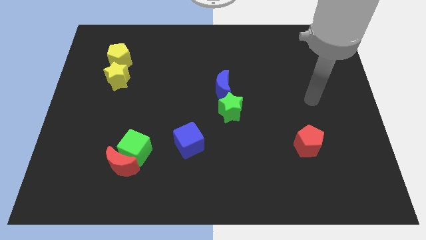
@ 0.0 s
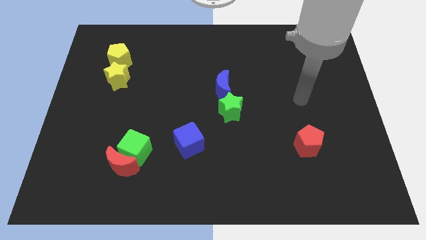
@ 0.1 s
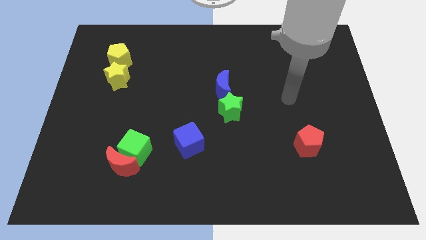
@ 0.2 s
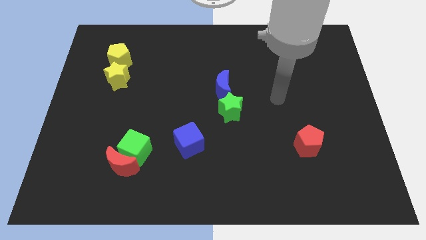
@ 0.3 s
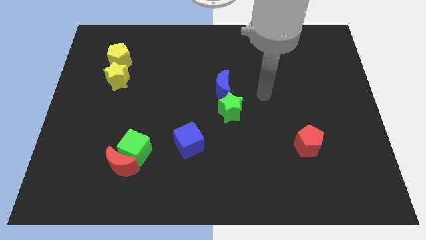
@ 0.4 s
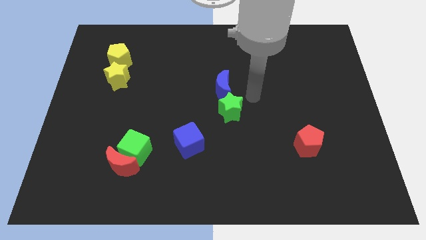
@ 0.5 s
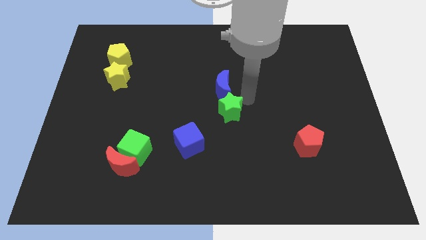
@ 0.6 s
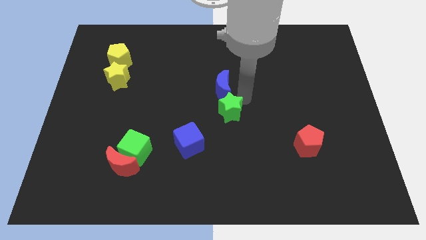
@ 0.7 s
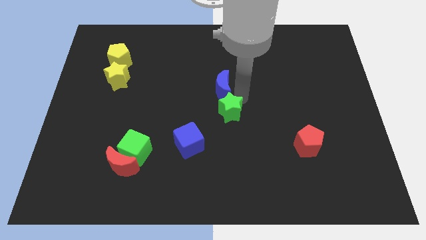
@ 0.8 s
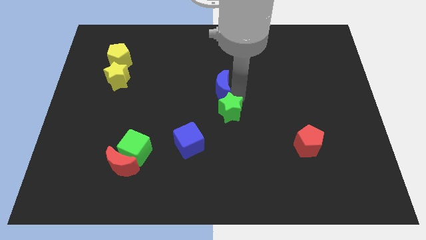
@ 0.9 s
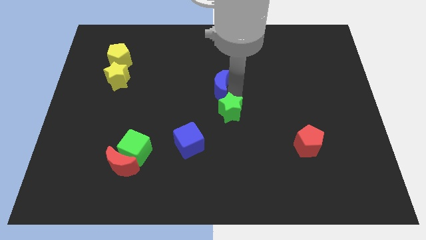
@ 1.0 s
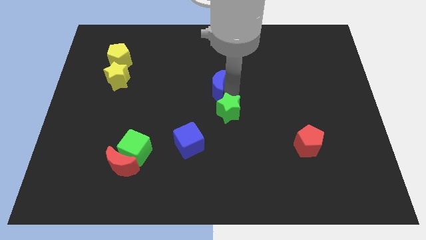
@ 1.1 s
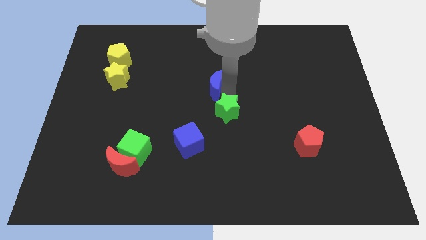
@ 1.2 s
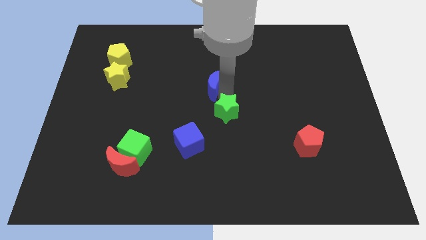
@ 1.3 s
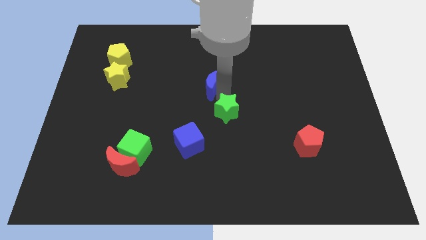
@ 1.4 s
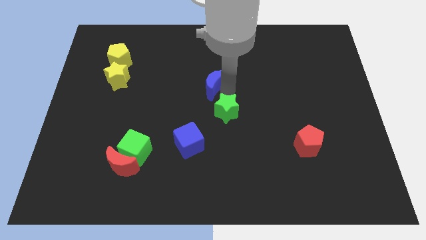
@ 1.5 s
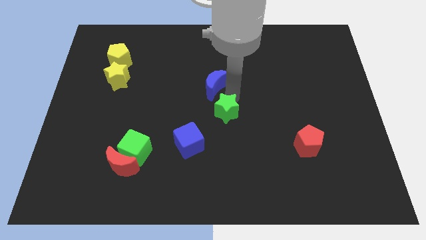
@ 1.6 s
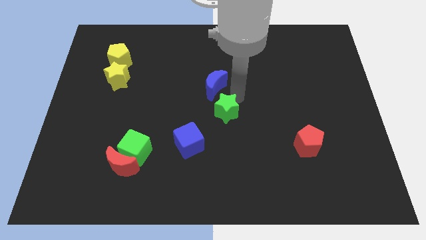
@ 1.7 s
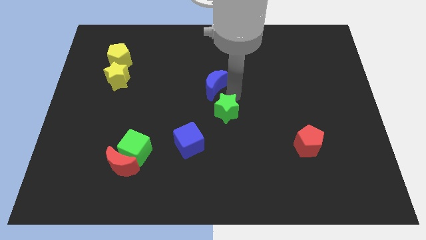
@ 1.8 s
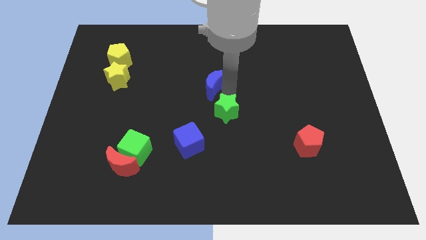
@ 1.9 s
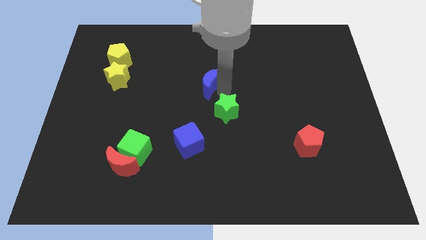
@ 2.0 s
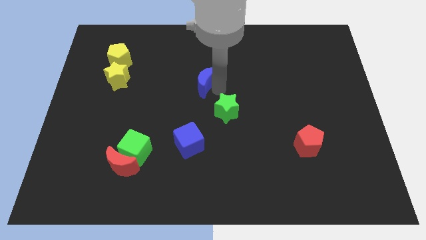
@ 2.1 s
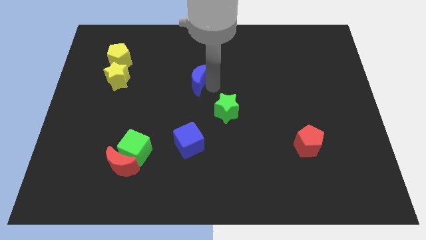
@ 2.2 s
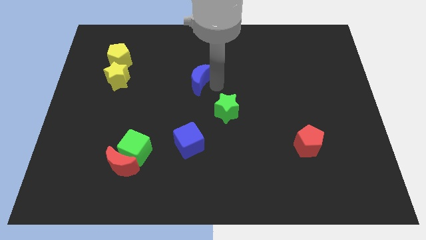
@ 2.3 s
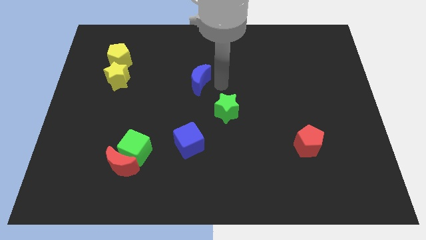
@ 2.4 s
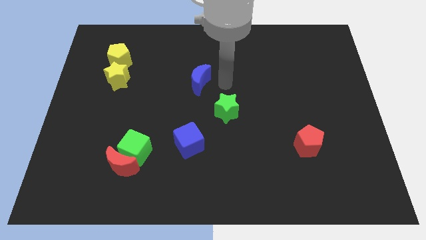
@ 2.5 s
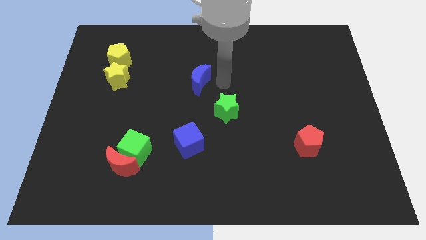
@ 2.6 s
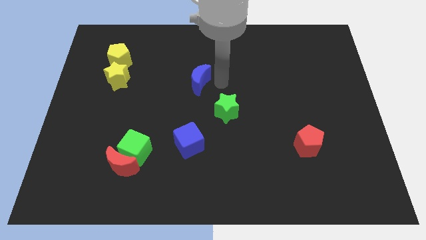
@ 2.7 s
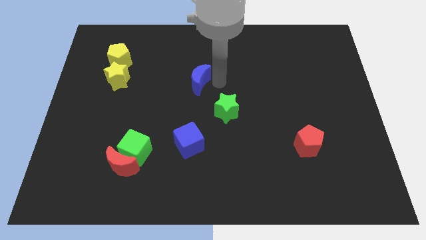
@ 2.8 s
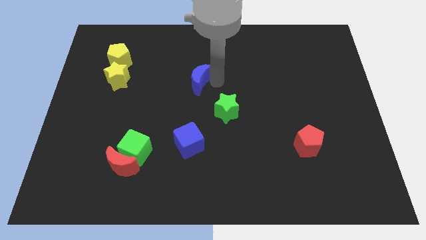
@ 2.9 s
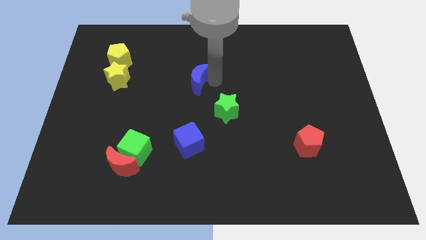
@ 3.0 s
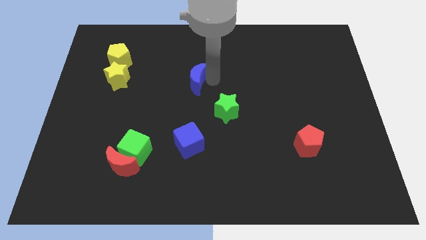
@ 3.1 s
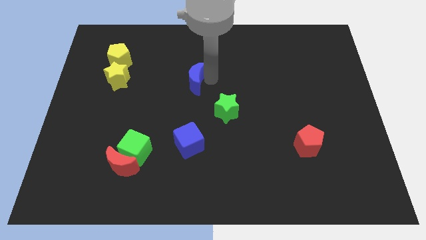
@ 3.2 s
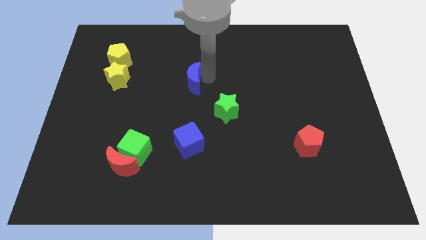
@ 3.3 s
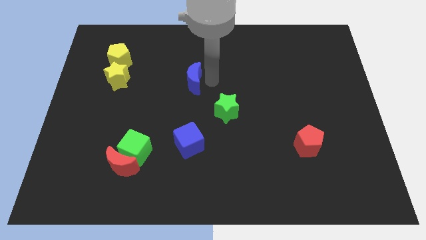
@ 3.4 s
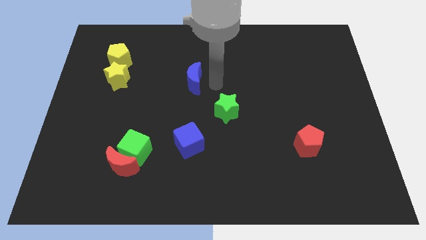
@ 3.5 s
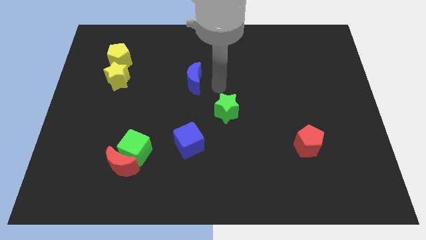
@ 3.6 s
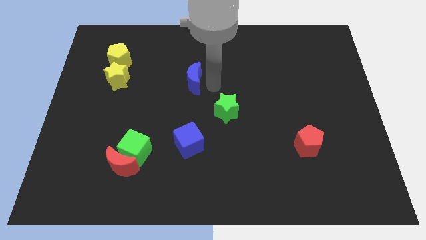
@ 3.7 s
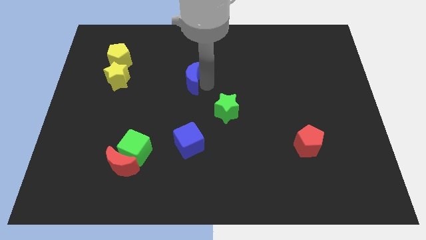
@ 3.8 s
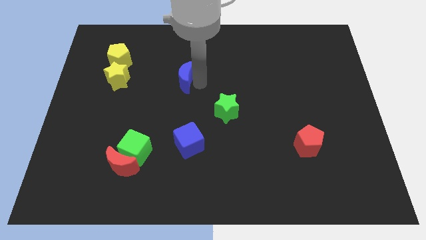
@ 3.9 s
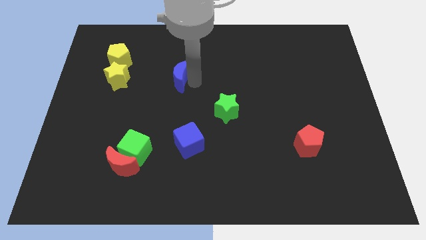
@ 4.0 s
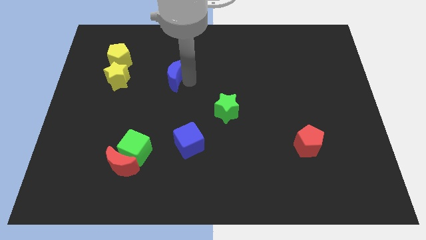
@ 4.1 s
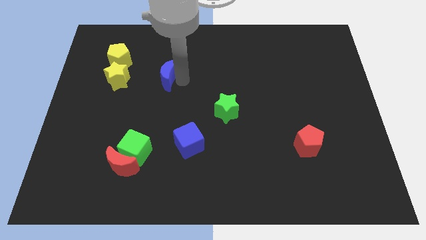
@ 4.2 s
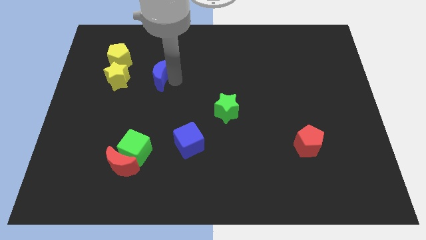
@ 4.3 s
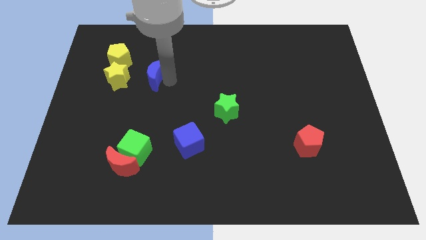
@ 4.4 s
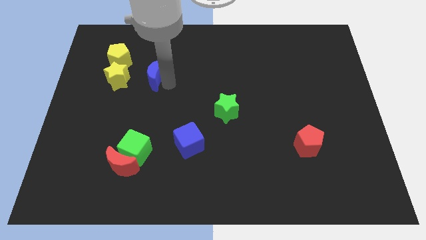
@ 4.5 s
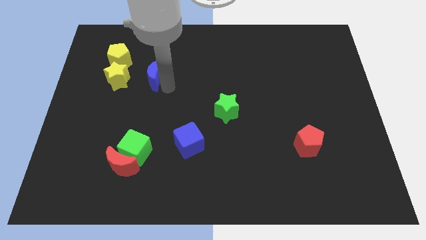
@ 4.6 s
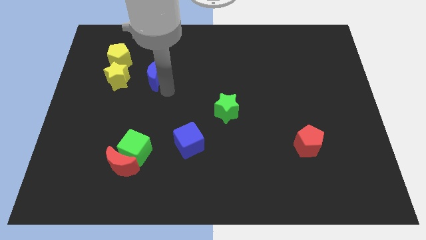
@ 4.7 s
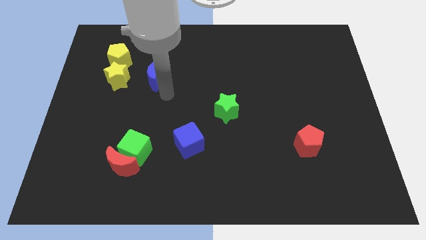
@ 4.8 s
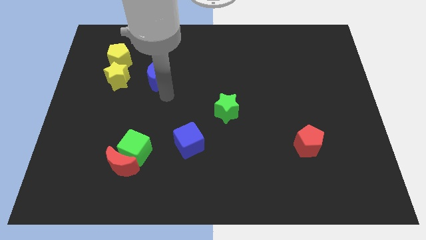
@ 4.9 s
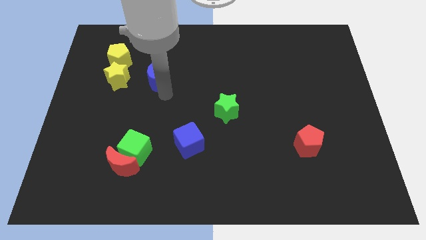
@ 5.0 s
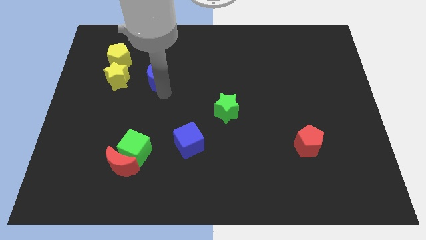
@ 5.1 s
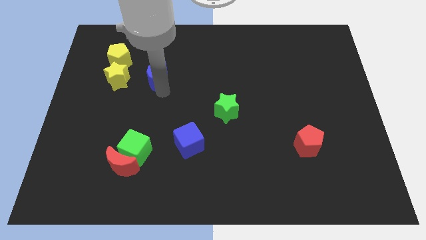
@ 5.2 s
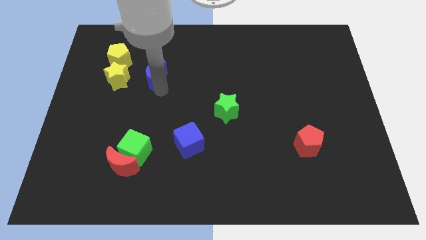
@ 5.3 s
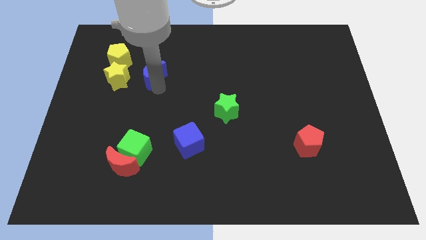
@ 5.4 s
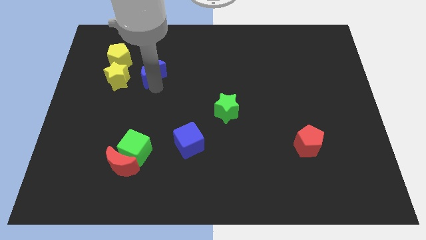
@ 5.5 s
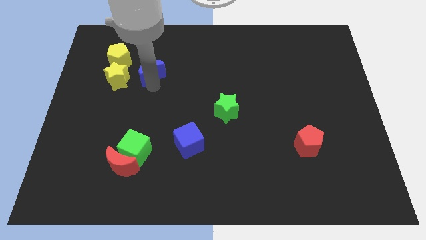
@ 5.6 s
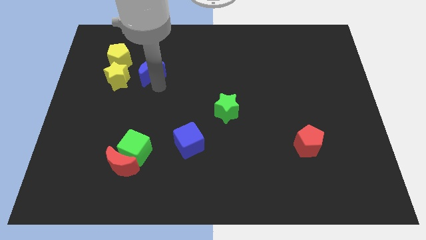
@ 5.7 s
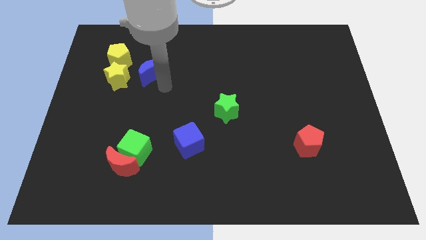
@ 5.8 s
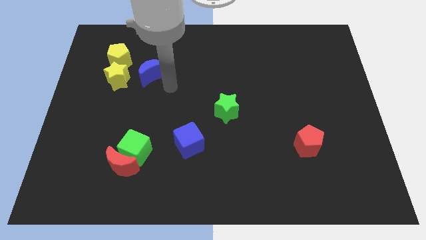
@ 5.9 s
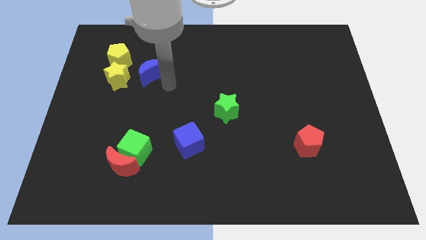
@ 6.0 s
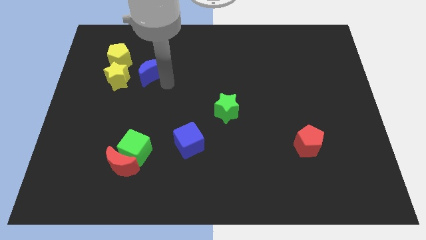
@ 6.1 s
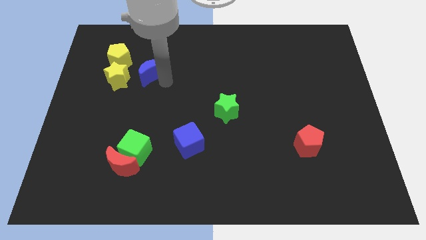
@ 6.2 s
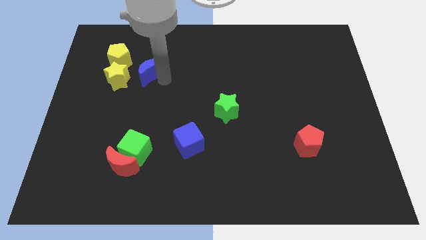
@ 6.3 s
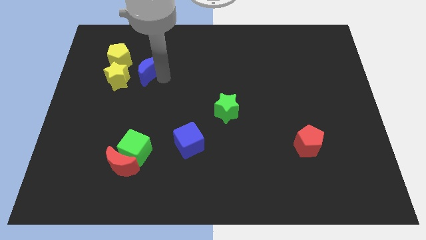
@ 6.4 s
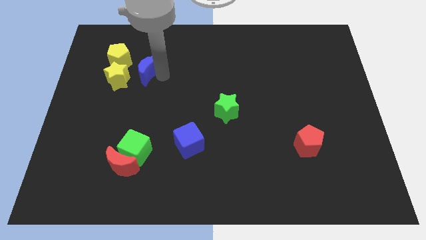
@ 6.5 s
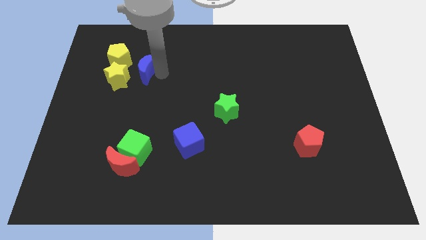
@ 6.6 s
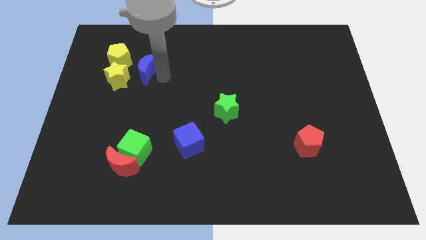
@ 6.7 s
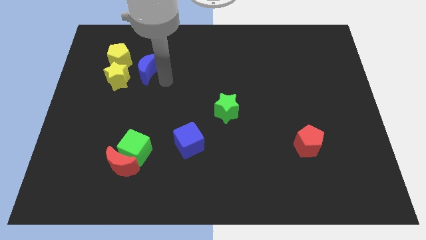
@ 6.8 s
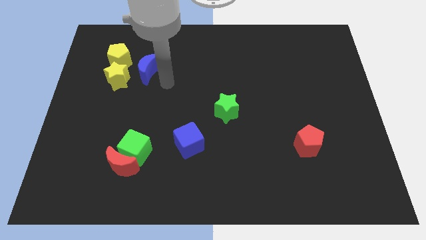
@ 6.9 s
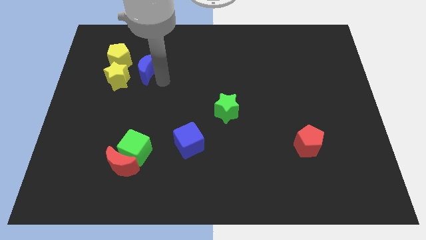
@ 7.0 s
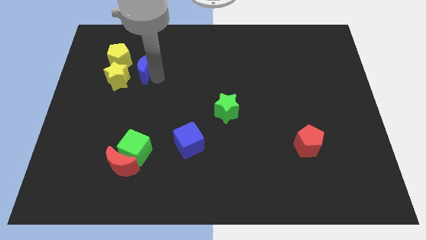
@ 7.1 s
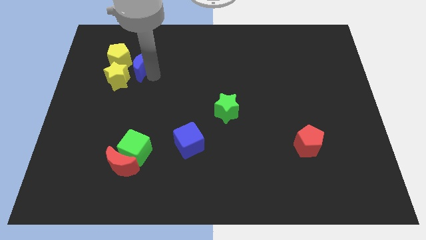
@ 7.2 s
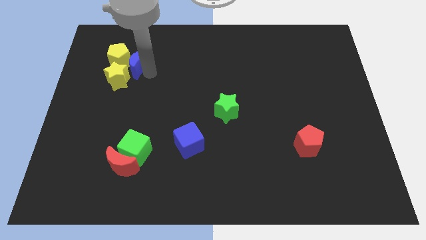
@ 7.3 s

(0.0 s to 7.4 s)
move the blue moon to the yellow pentagon
